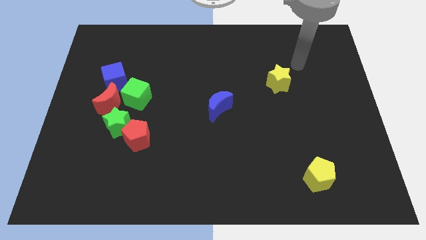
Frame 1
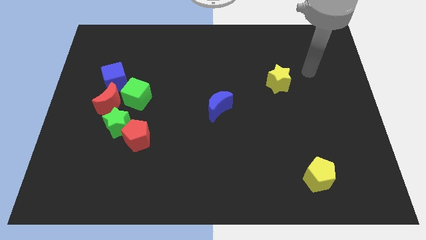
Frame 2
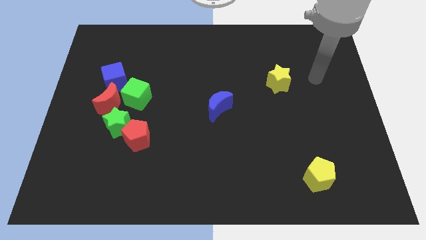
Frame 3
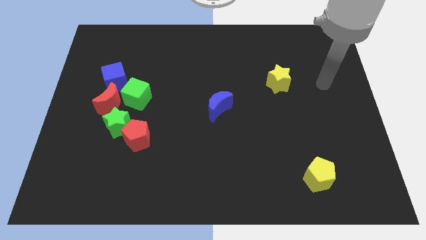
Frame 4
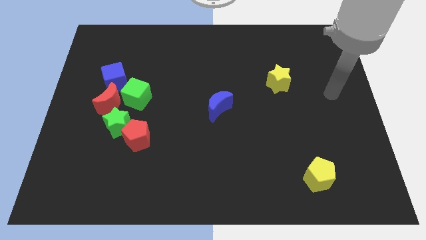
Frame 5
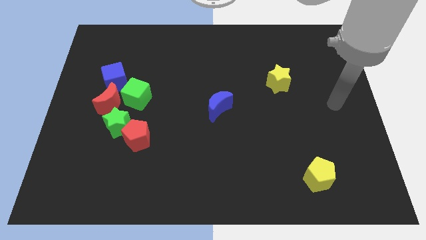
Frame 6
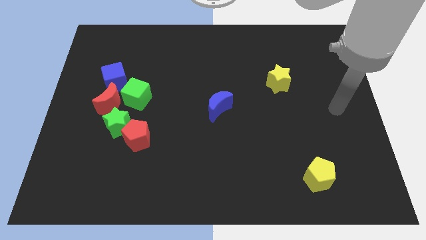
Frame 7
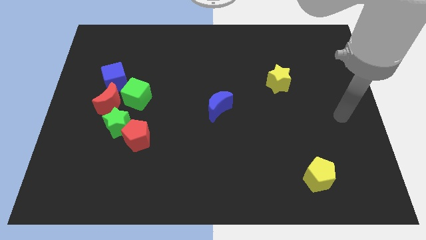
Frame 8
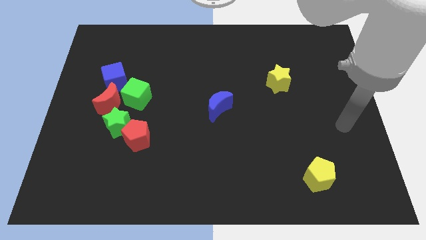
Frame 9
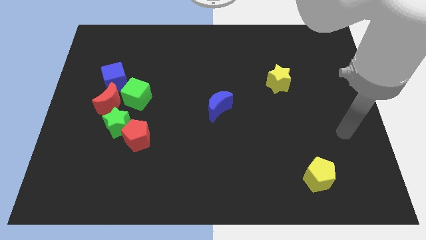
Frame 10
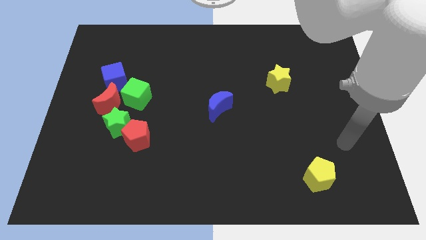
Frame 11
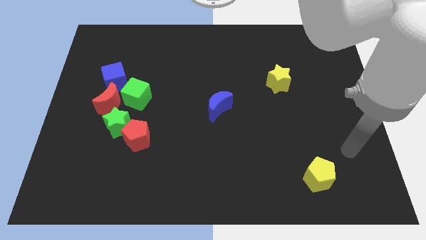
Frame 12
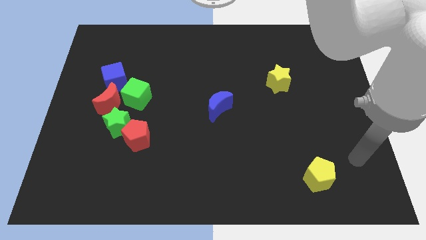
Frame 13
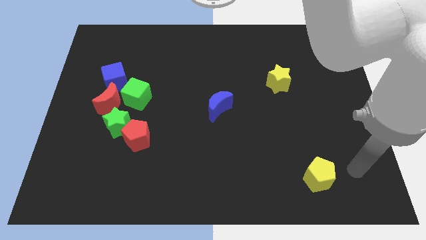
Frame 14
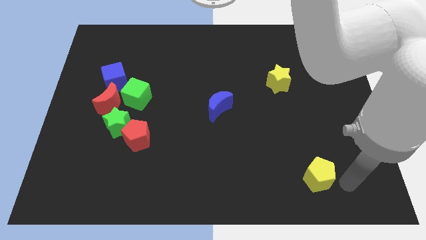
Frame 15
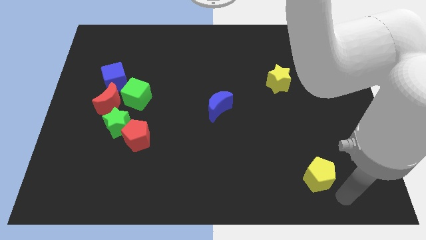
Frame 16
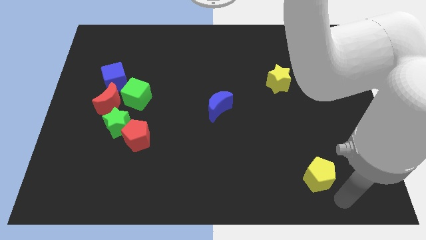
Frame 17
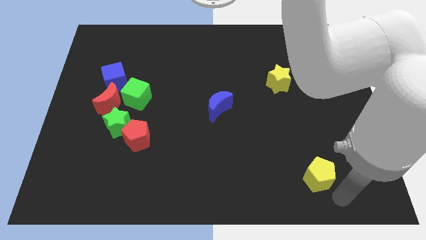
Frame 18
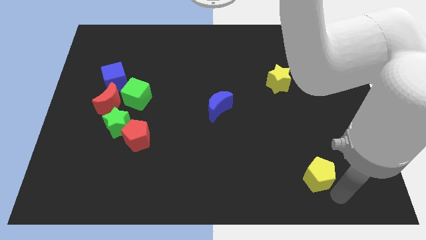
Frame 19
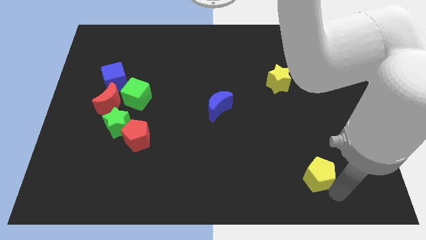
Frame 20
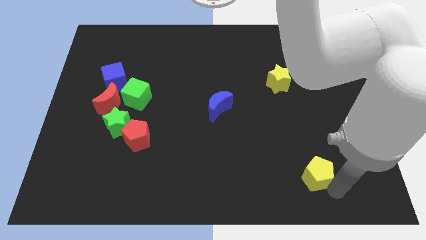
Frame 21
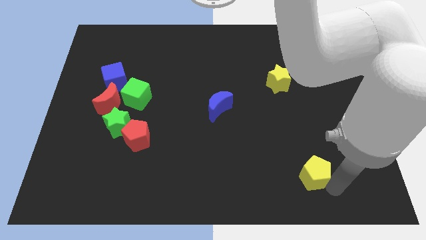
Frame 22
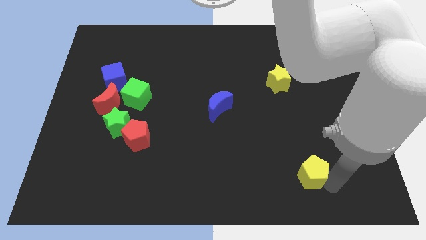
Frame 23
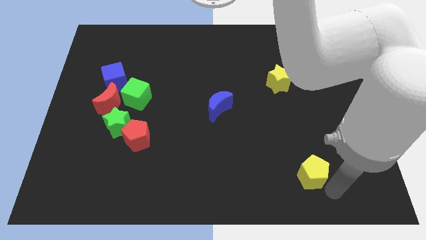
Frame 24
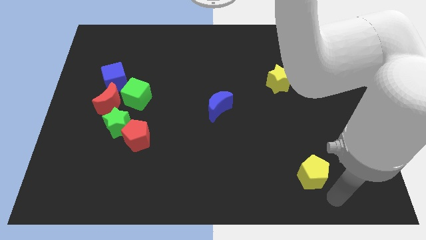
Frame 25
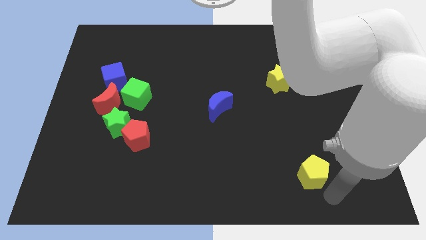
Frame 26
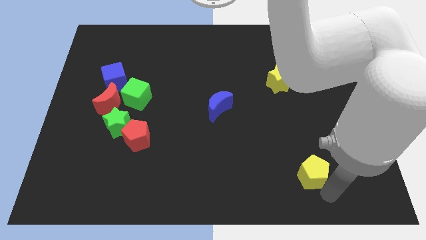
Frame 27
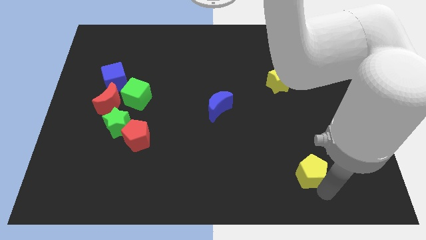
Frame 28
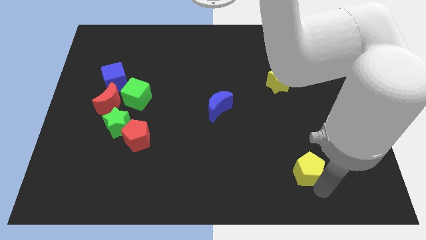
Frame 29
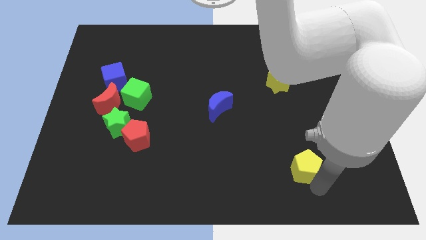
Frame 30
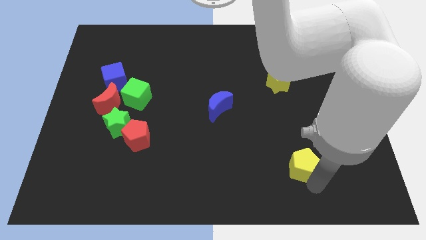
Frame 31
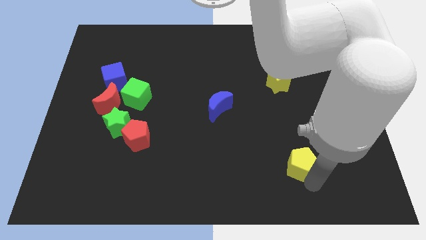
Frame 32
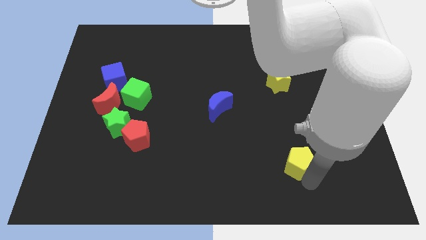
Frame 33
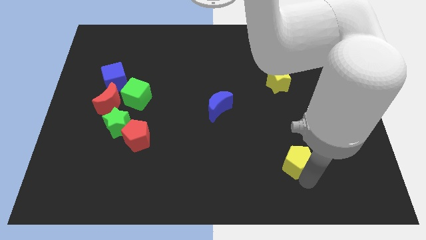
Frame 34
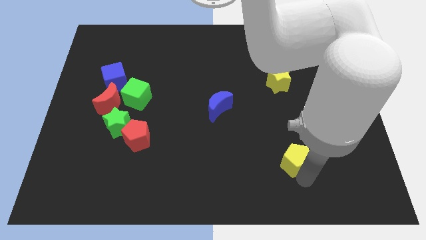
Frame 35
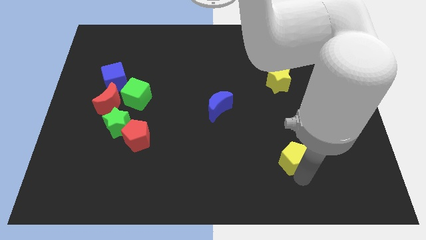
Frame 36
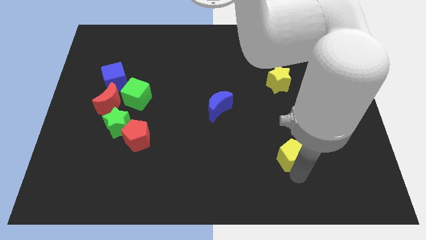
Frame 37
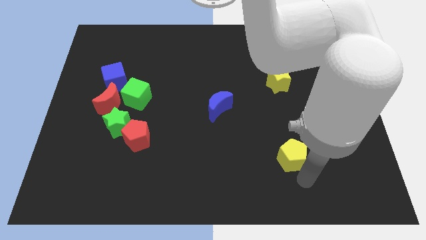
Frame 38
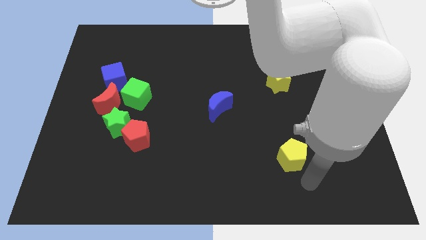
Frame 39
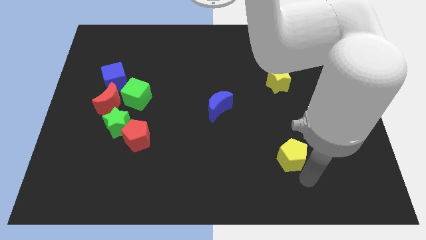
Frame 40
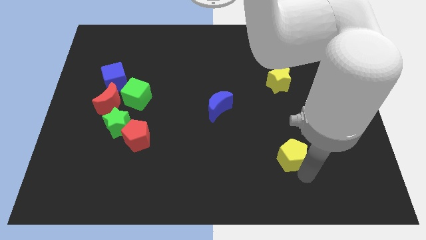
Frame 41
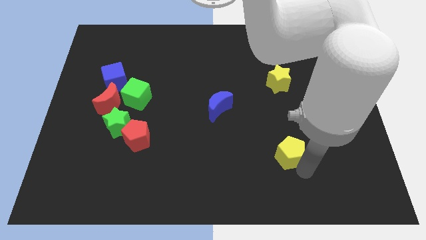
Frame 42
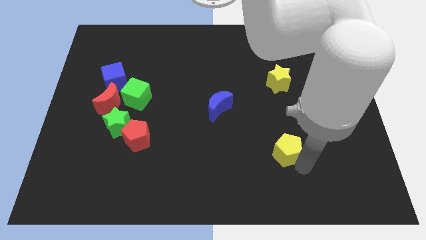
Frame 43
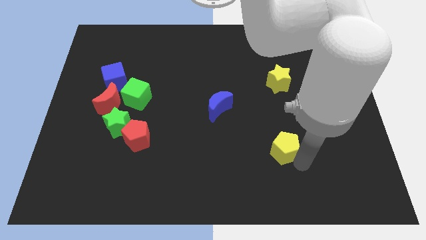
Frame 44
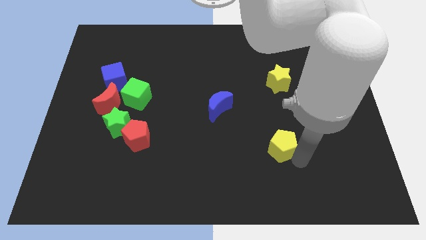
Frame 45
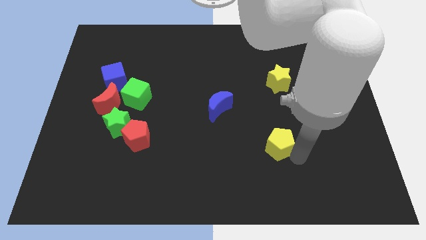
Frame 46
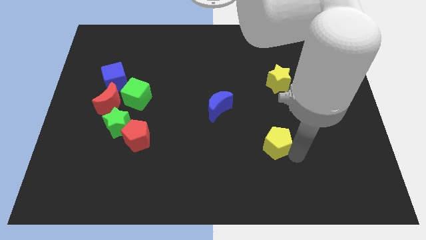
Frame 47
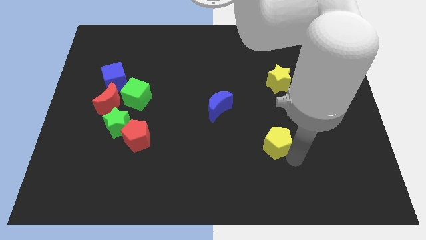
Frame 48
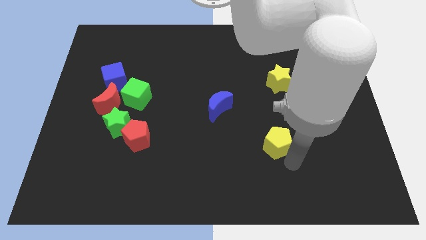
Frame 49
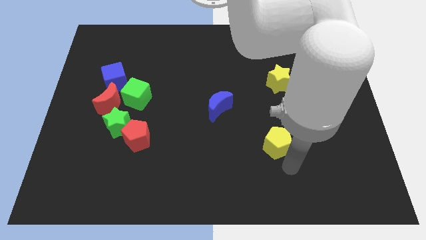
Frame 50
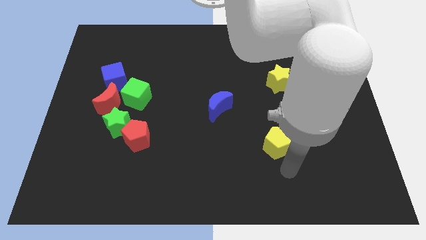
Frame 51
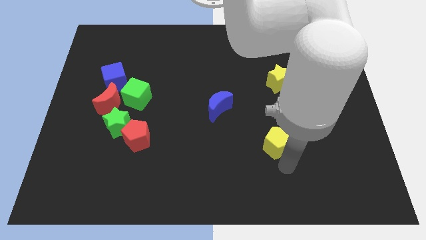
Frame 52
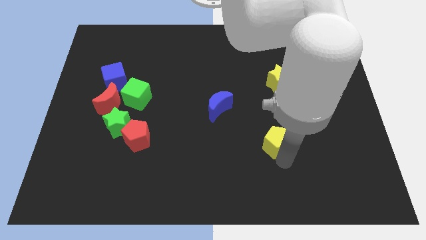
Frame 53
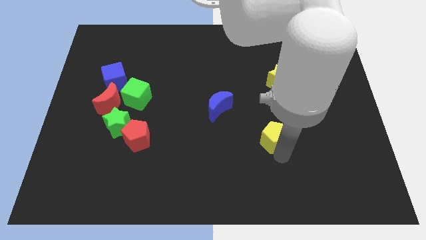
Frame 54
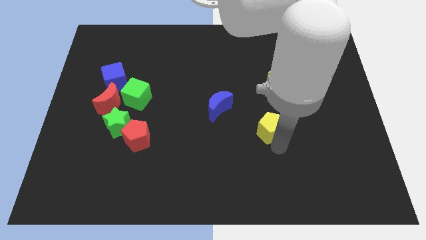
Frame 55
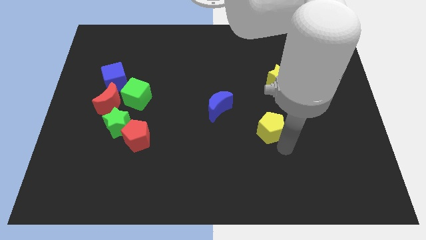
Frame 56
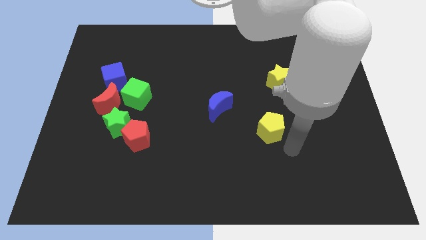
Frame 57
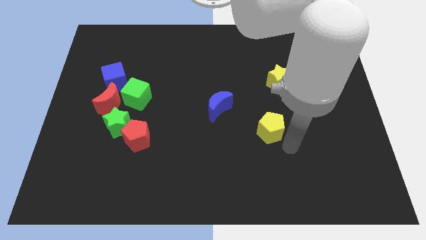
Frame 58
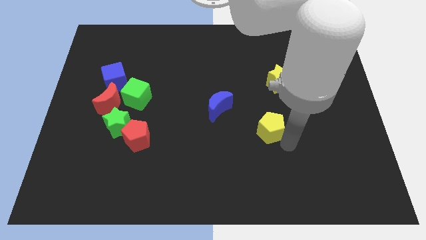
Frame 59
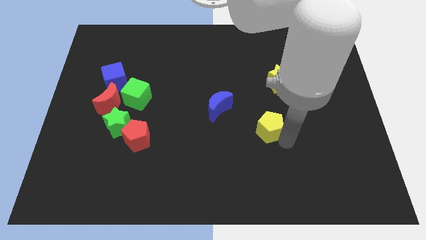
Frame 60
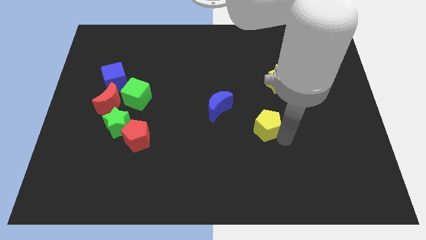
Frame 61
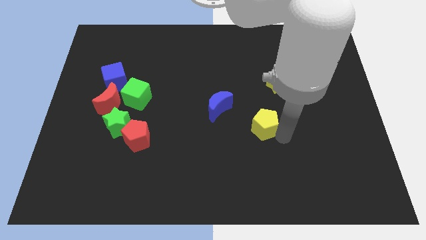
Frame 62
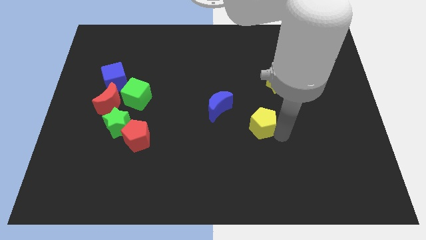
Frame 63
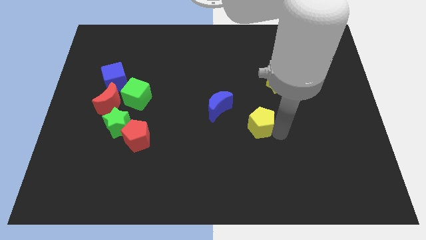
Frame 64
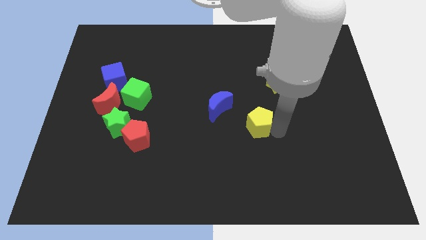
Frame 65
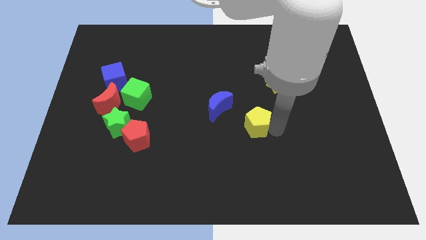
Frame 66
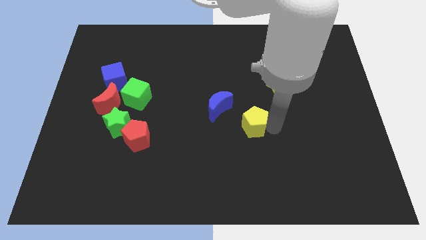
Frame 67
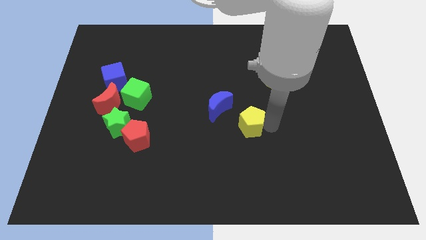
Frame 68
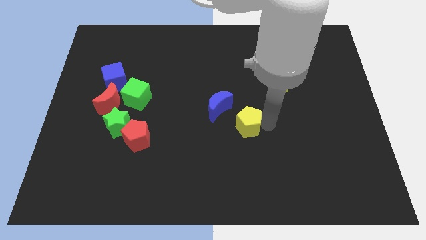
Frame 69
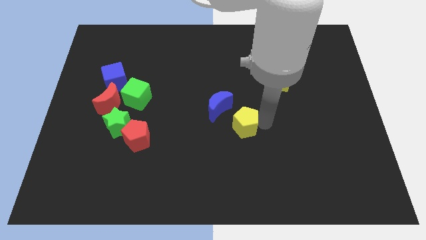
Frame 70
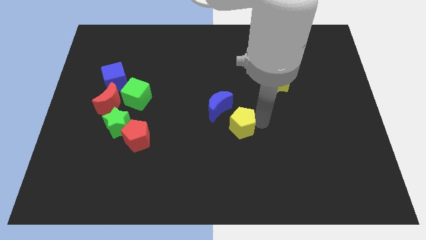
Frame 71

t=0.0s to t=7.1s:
move the yellow pentagon diagonally upwards and to the left

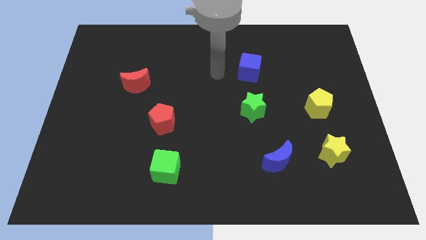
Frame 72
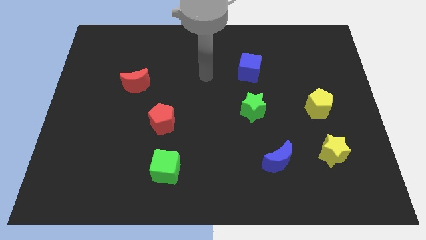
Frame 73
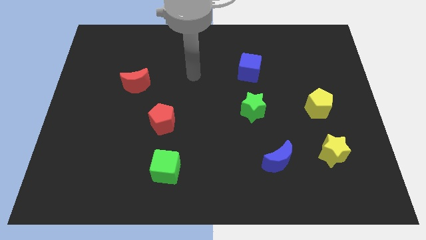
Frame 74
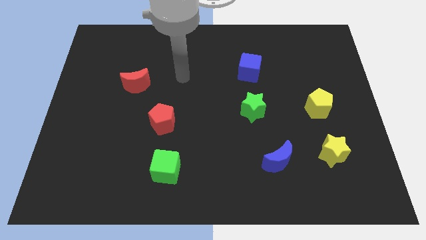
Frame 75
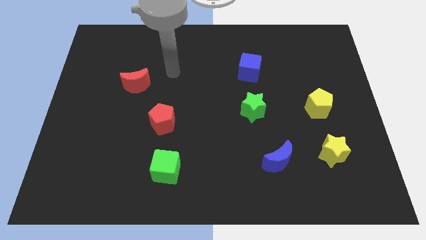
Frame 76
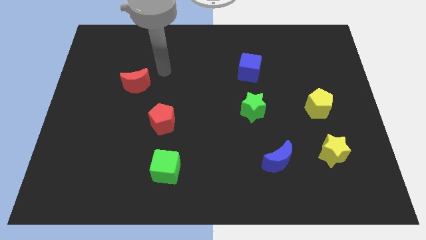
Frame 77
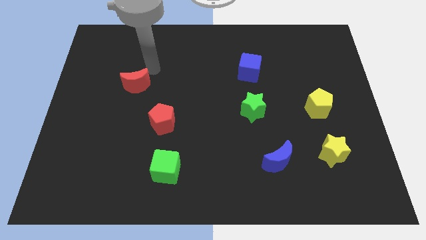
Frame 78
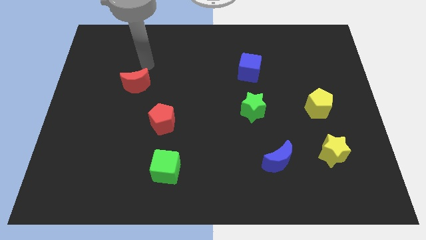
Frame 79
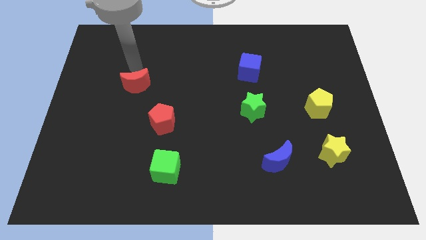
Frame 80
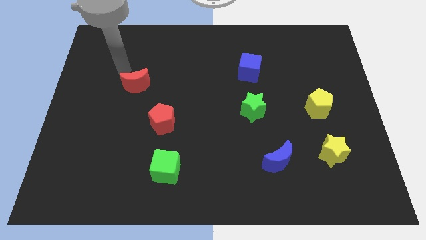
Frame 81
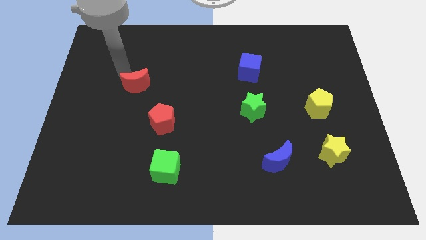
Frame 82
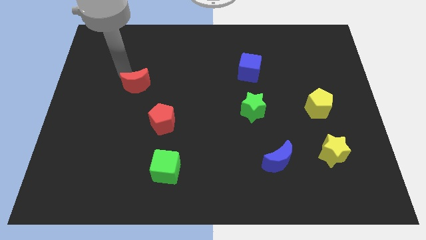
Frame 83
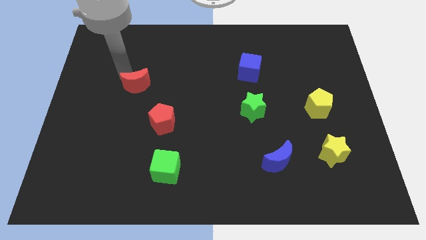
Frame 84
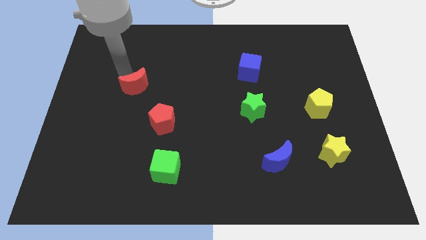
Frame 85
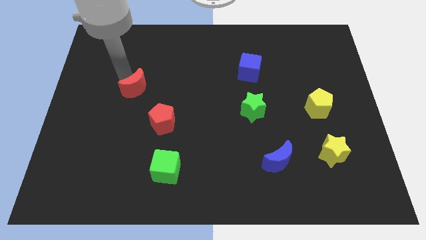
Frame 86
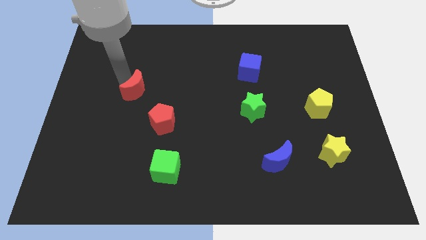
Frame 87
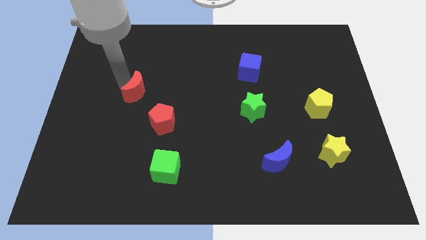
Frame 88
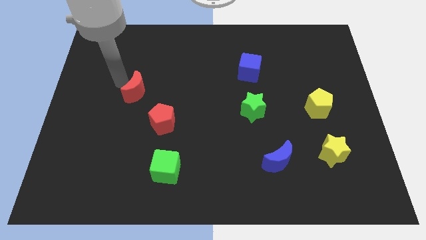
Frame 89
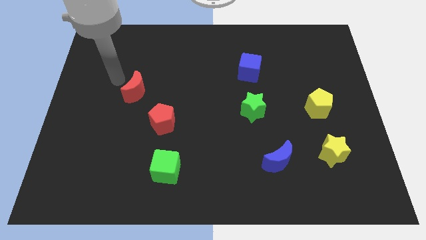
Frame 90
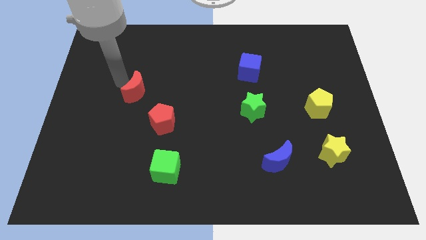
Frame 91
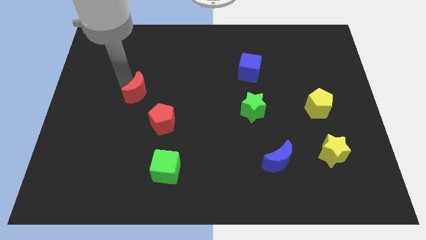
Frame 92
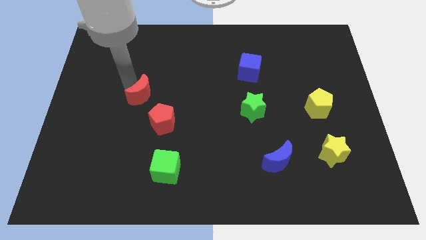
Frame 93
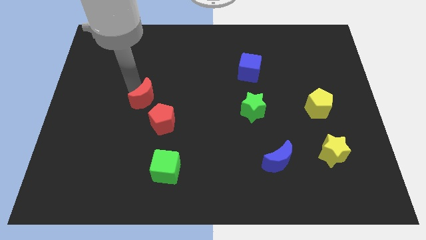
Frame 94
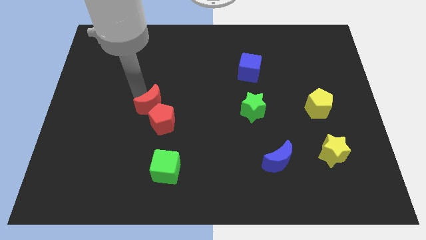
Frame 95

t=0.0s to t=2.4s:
move the red moon somewhat diagonally down and to the right
